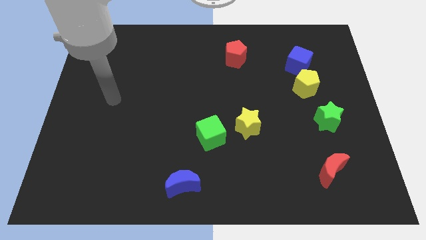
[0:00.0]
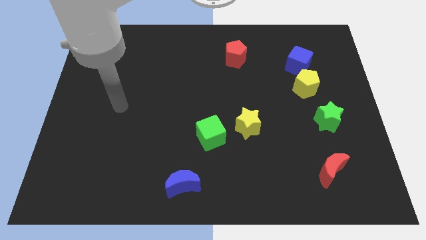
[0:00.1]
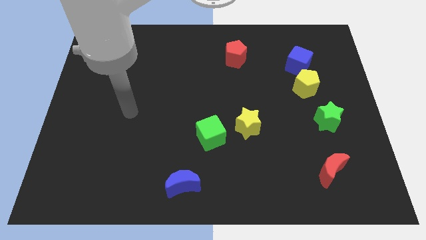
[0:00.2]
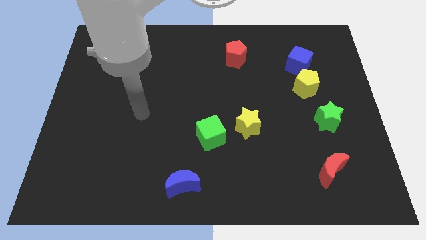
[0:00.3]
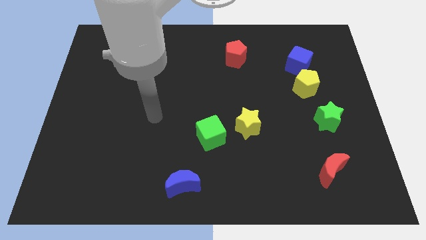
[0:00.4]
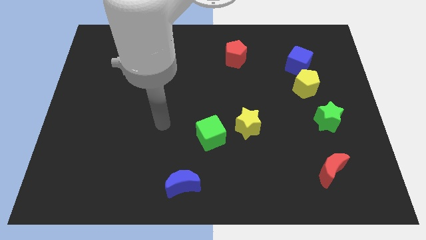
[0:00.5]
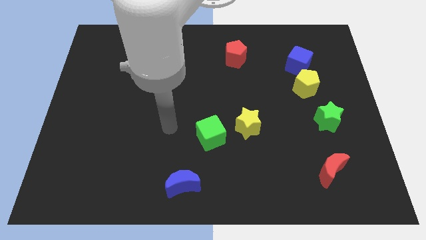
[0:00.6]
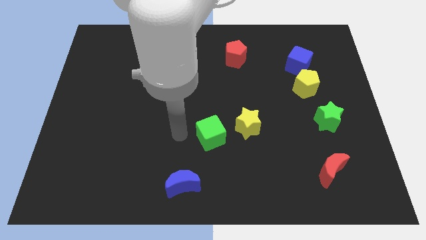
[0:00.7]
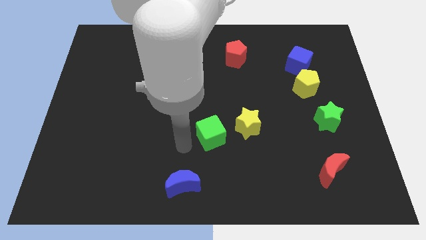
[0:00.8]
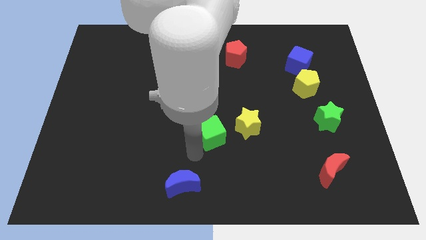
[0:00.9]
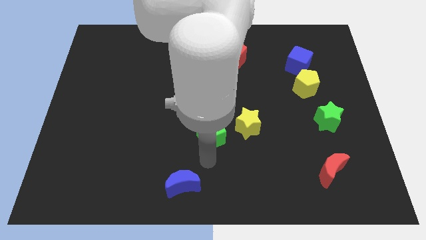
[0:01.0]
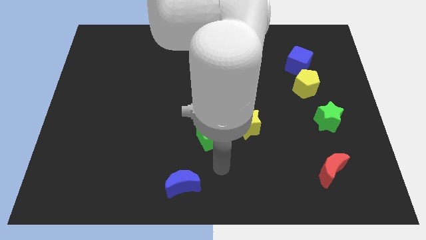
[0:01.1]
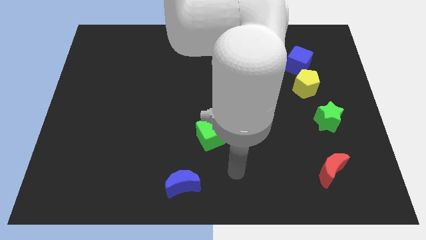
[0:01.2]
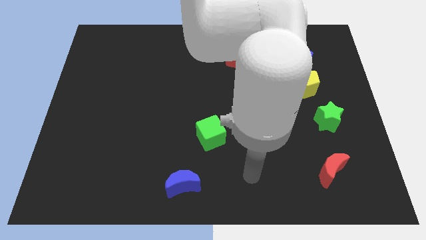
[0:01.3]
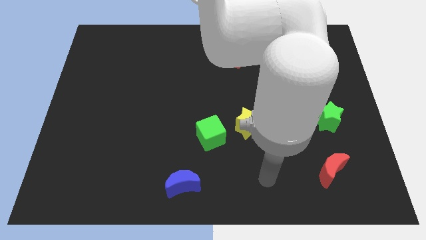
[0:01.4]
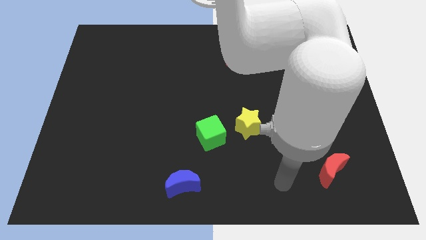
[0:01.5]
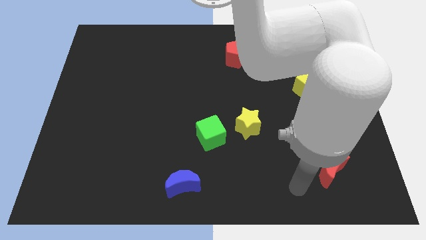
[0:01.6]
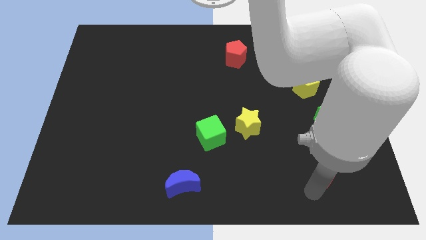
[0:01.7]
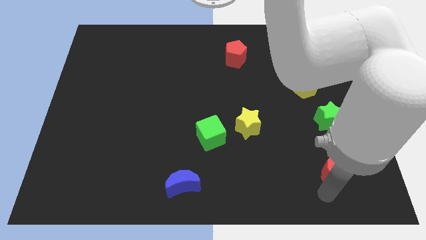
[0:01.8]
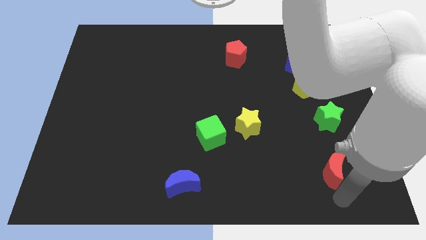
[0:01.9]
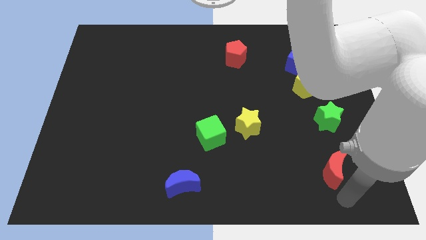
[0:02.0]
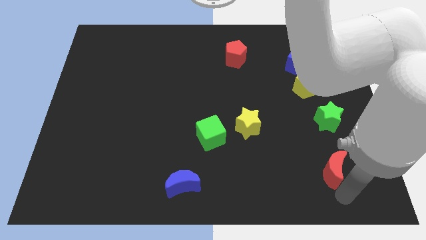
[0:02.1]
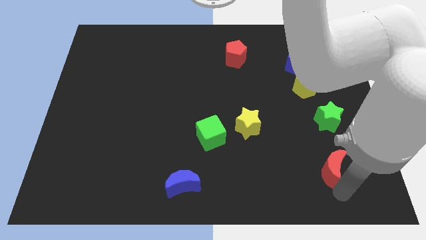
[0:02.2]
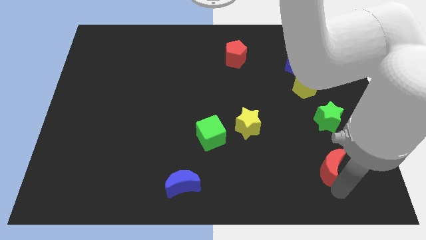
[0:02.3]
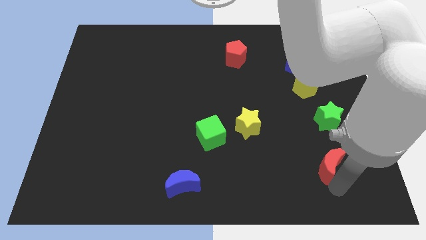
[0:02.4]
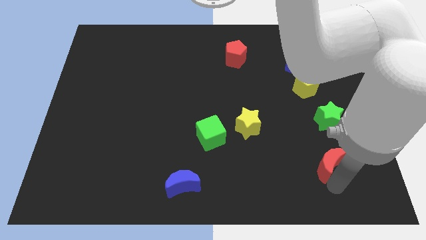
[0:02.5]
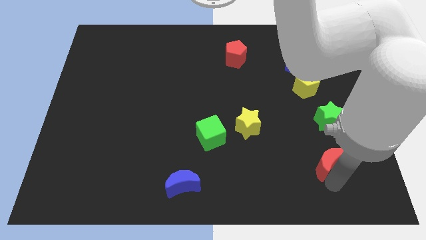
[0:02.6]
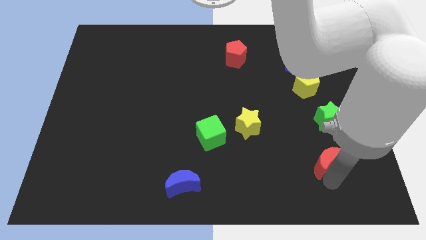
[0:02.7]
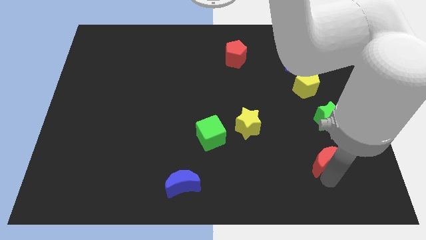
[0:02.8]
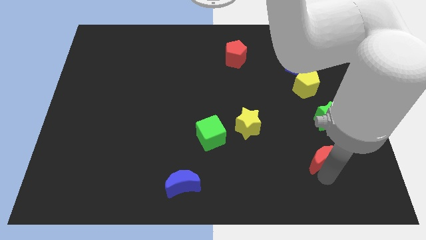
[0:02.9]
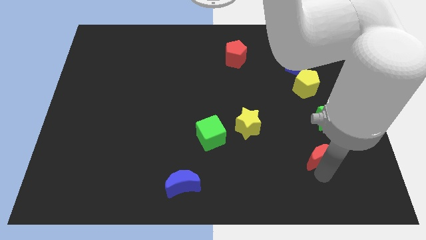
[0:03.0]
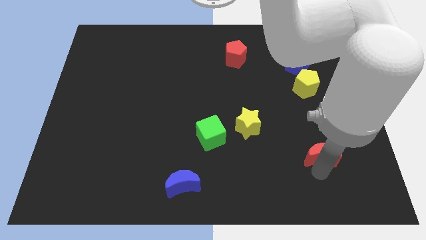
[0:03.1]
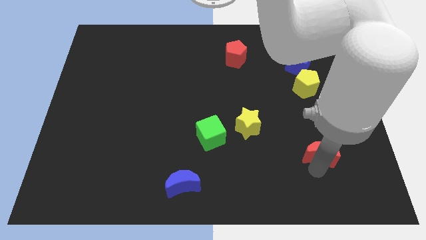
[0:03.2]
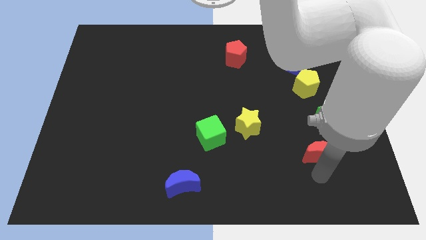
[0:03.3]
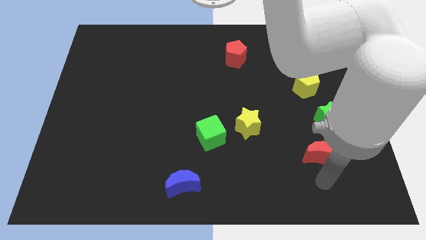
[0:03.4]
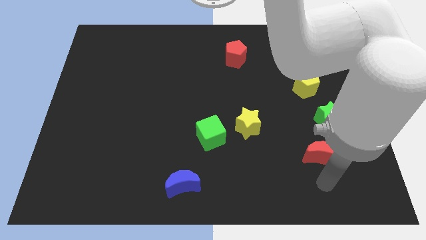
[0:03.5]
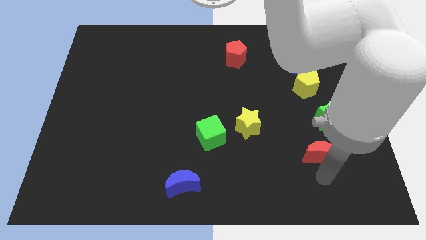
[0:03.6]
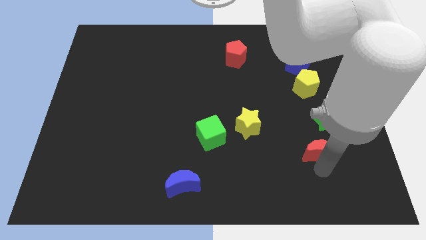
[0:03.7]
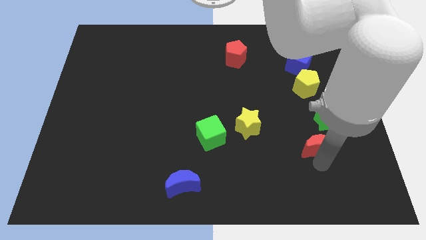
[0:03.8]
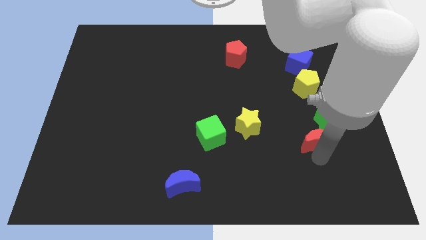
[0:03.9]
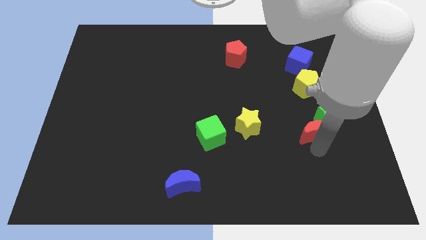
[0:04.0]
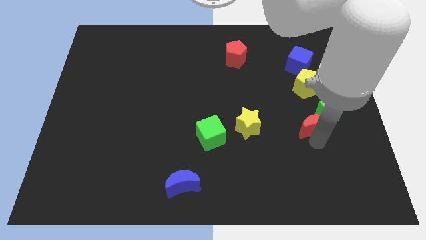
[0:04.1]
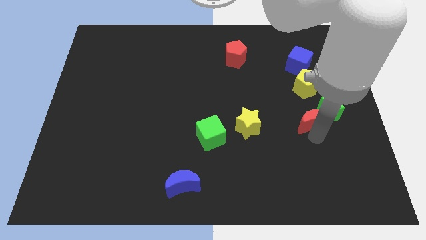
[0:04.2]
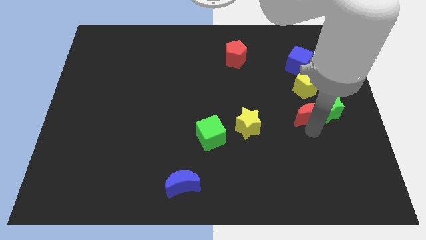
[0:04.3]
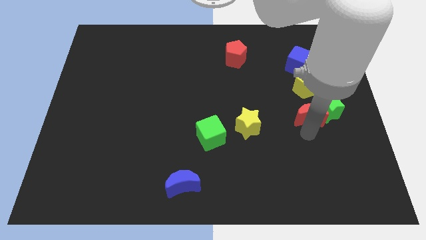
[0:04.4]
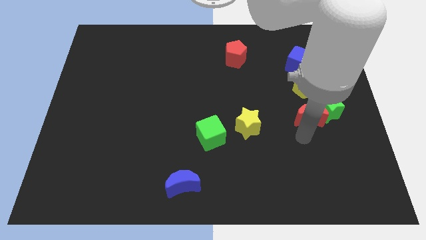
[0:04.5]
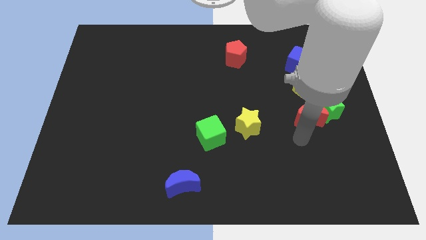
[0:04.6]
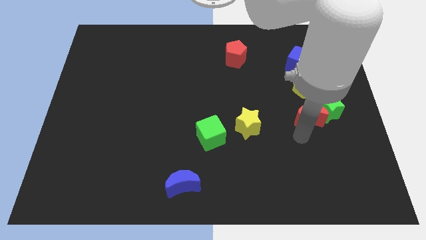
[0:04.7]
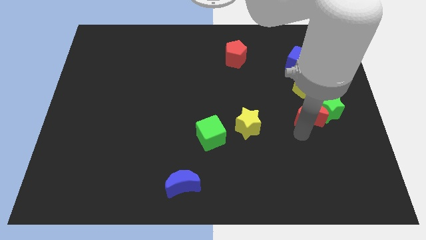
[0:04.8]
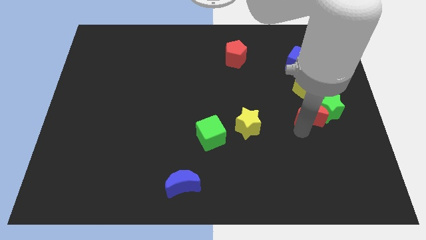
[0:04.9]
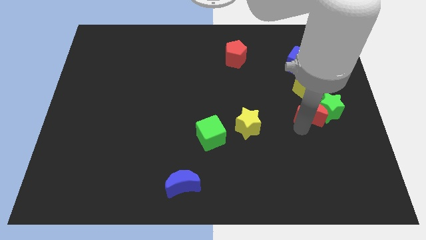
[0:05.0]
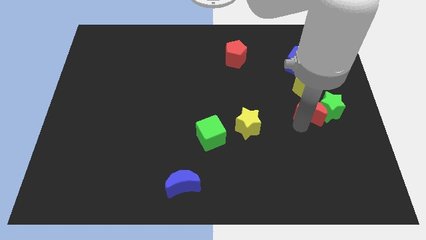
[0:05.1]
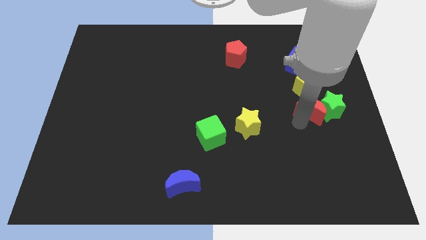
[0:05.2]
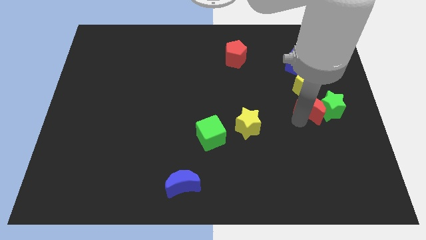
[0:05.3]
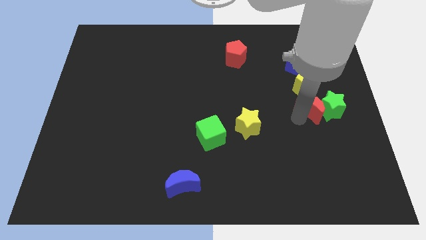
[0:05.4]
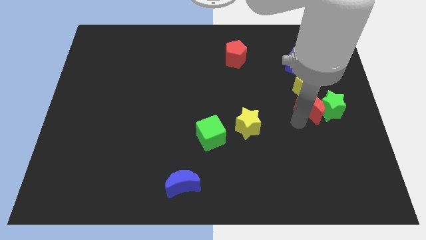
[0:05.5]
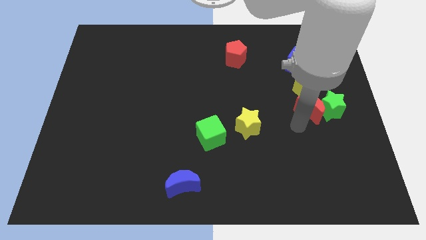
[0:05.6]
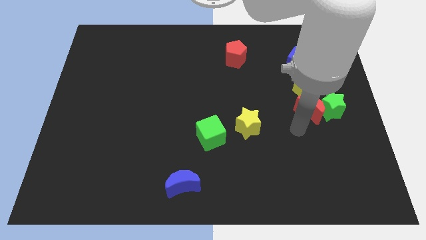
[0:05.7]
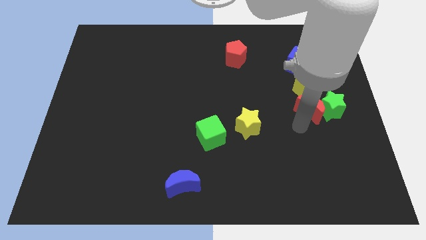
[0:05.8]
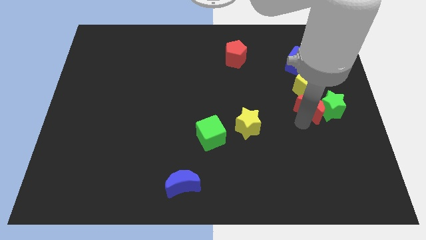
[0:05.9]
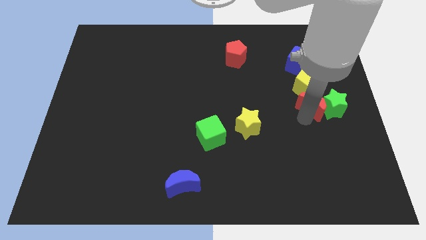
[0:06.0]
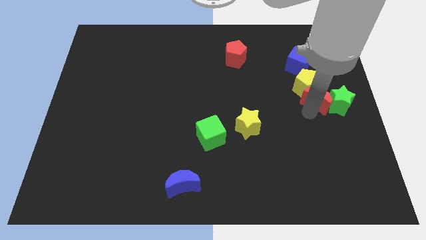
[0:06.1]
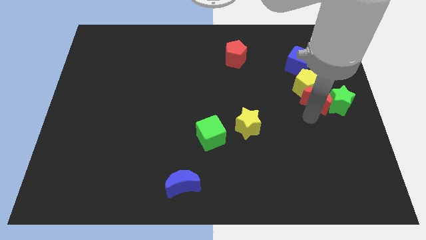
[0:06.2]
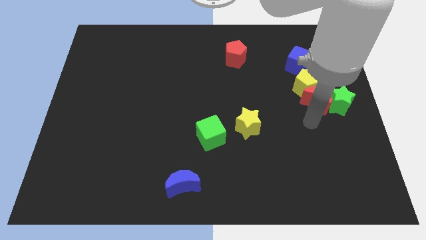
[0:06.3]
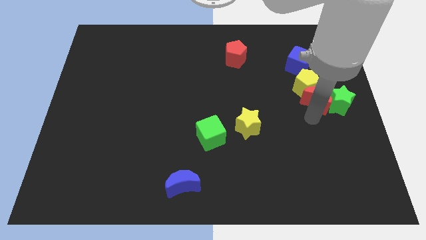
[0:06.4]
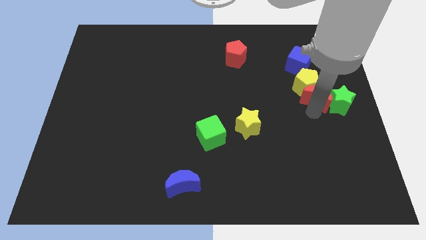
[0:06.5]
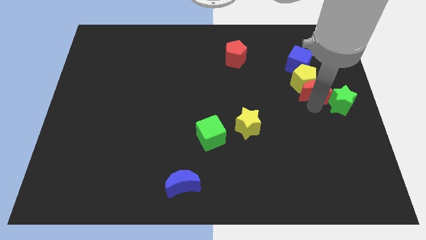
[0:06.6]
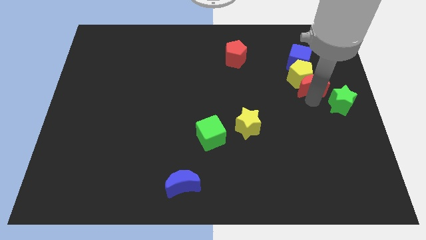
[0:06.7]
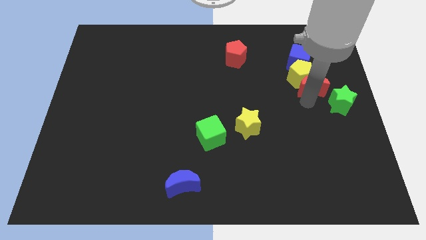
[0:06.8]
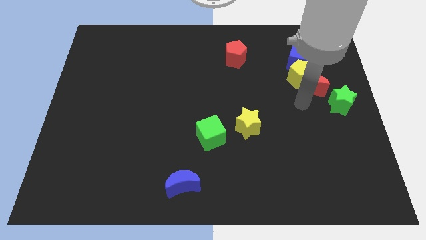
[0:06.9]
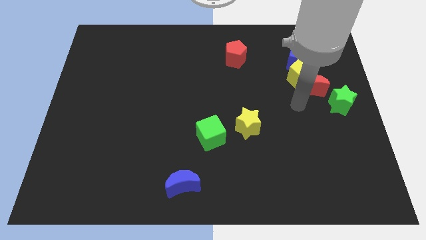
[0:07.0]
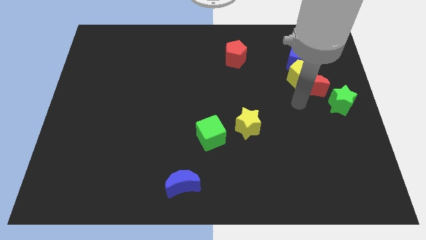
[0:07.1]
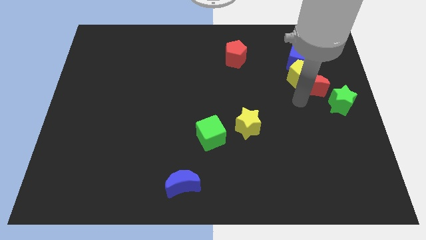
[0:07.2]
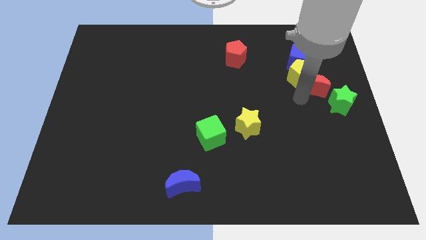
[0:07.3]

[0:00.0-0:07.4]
put the red moon to the bottom right of the blue cube
